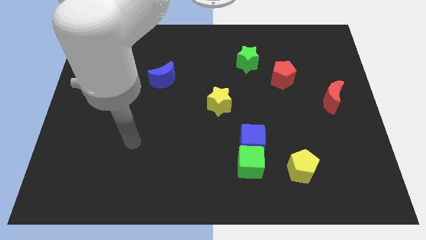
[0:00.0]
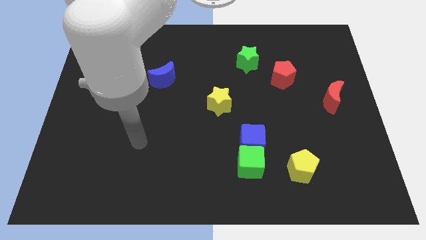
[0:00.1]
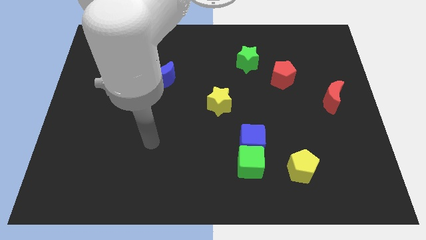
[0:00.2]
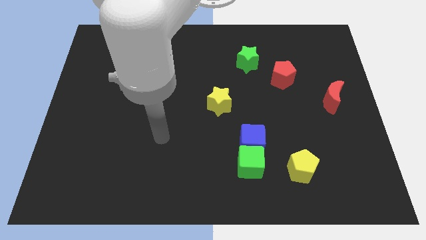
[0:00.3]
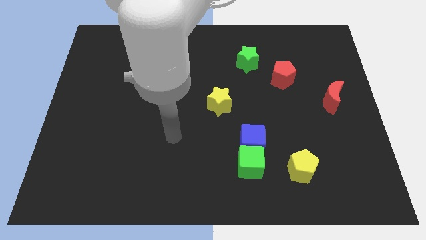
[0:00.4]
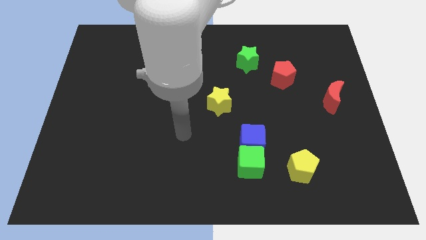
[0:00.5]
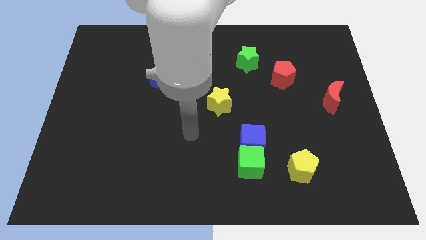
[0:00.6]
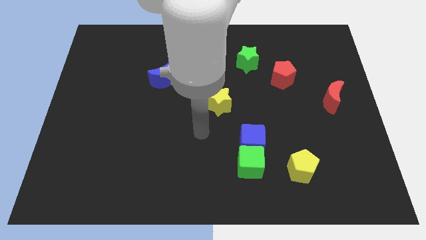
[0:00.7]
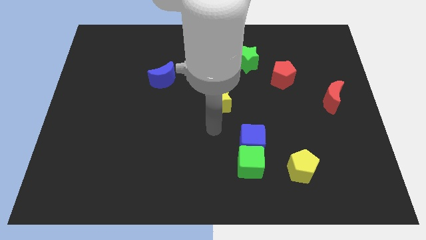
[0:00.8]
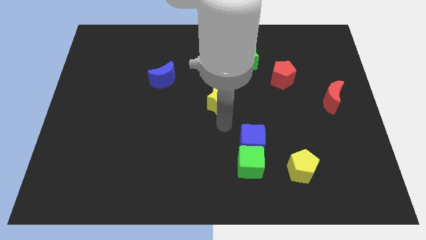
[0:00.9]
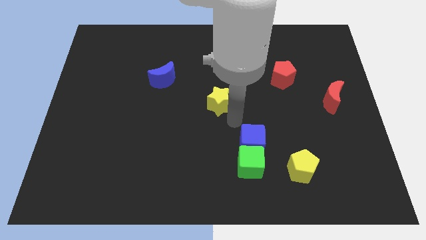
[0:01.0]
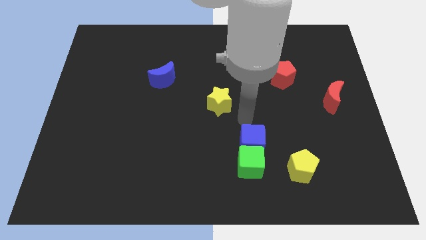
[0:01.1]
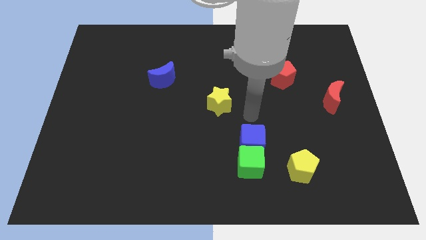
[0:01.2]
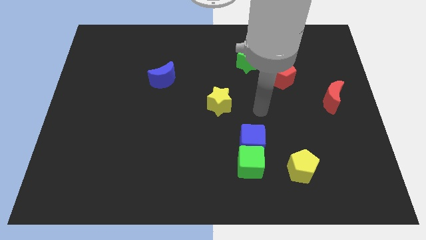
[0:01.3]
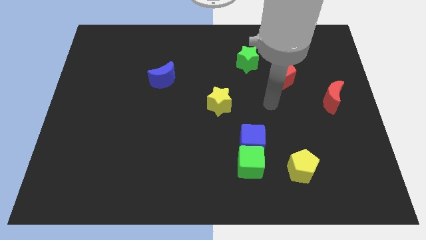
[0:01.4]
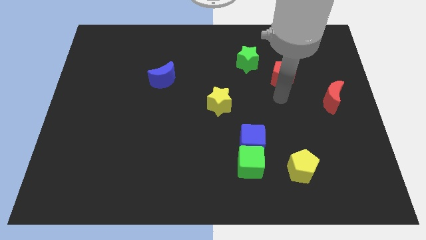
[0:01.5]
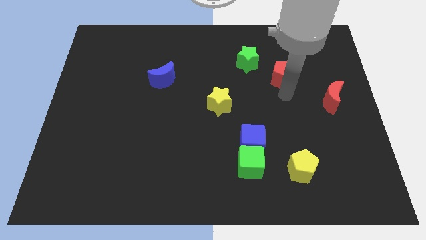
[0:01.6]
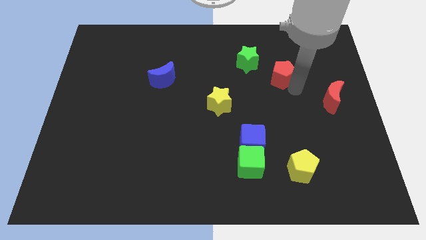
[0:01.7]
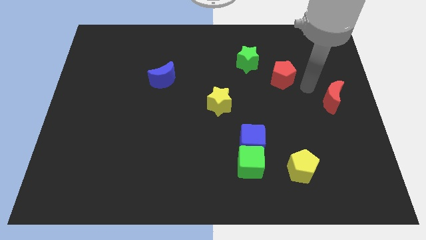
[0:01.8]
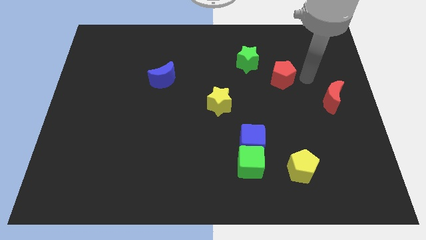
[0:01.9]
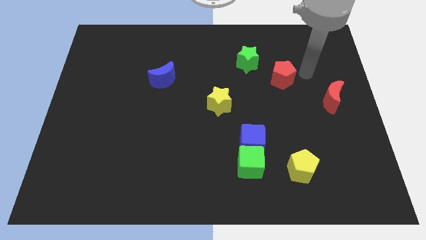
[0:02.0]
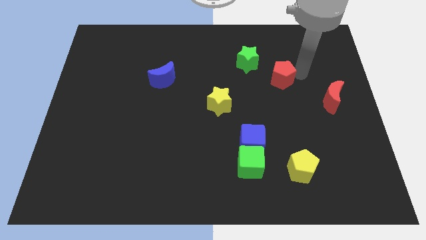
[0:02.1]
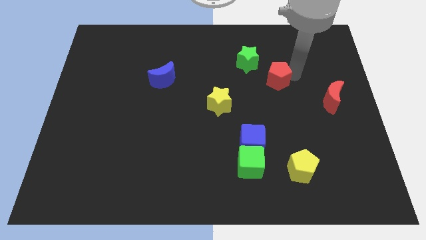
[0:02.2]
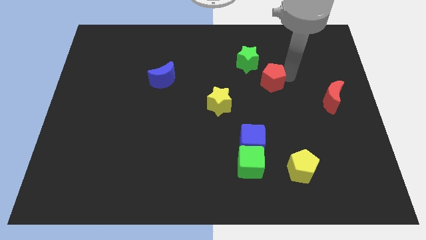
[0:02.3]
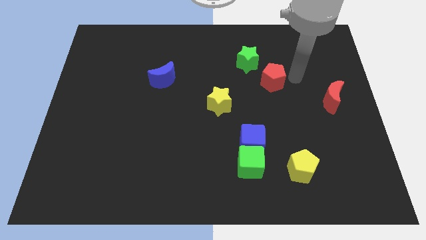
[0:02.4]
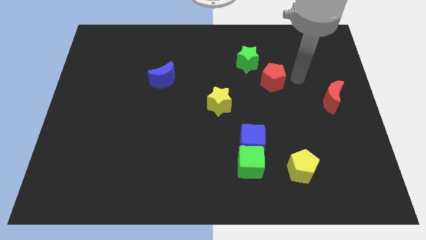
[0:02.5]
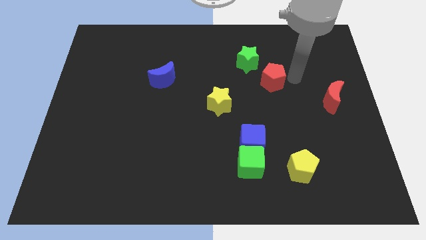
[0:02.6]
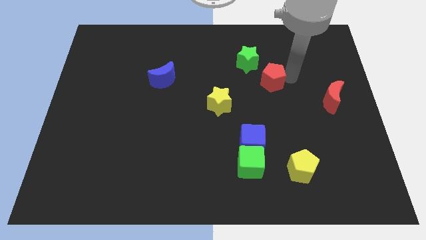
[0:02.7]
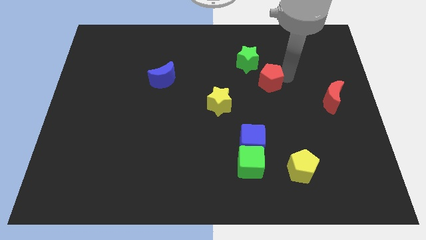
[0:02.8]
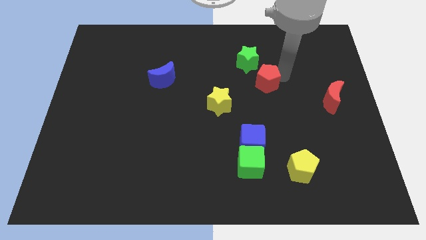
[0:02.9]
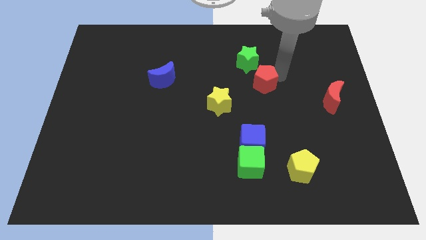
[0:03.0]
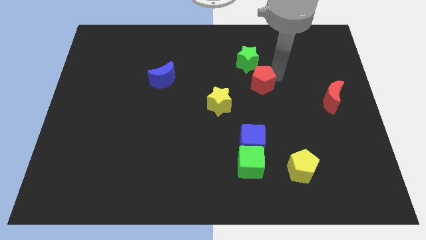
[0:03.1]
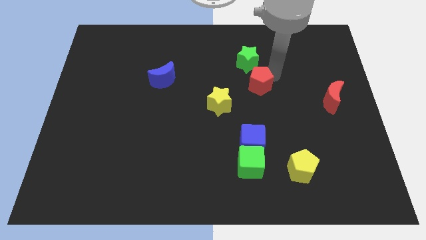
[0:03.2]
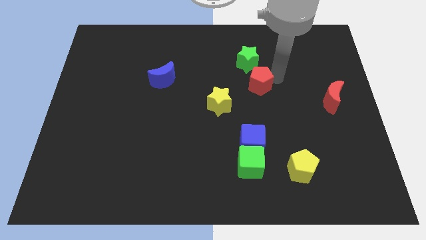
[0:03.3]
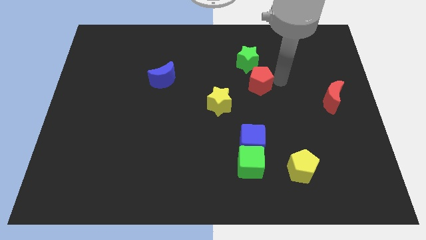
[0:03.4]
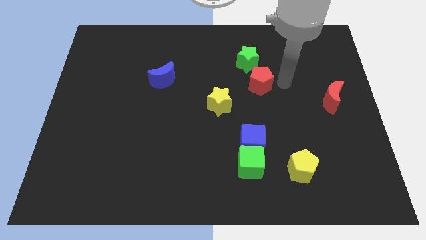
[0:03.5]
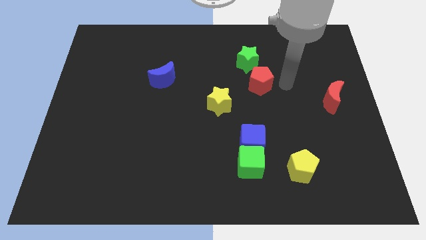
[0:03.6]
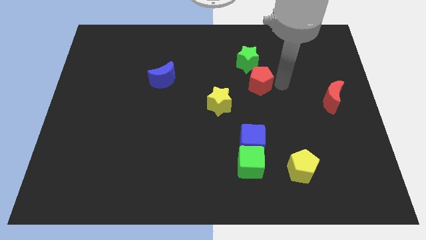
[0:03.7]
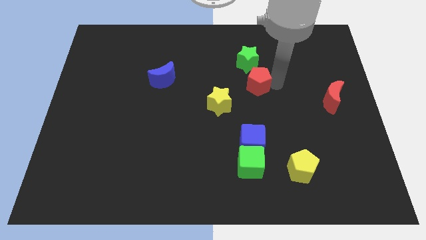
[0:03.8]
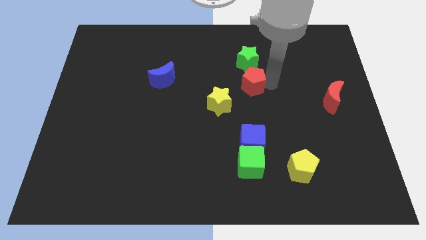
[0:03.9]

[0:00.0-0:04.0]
slightly move the red pentagon to the left

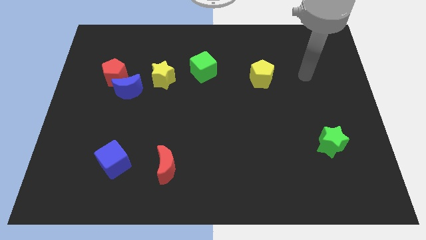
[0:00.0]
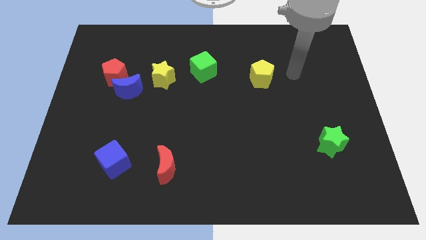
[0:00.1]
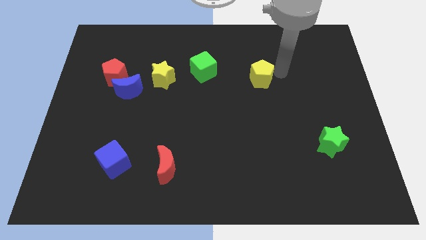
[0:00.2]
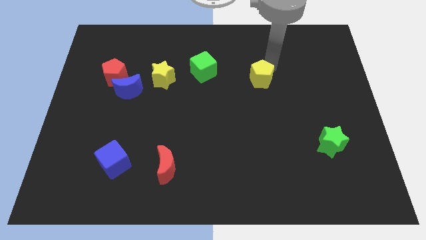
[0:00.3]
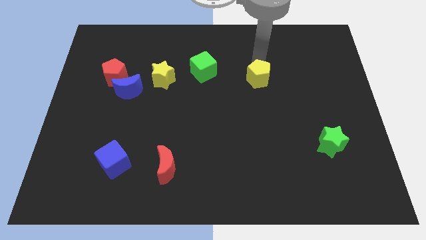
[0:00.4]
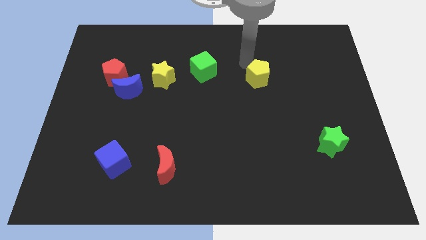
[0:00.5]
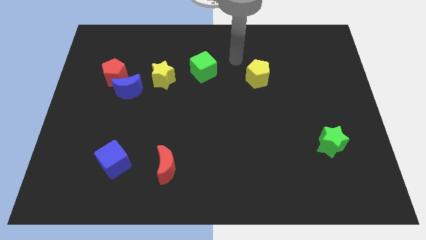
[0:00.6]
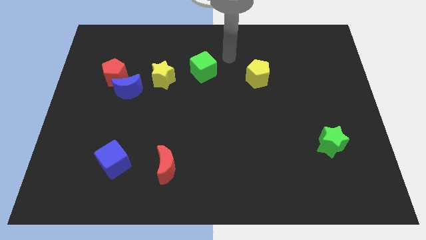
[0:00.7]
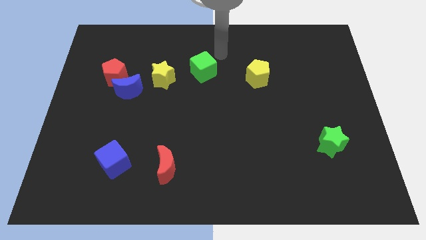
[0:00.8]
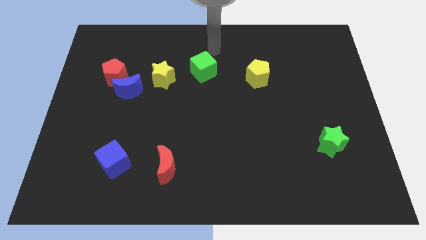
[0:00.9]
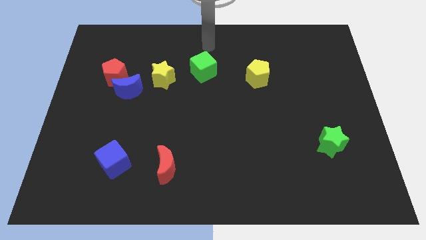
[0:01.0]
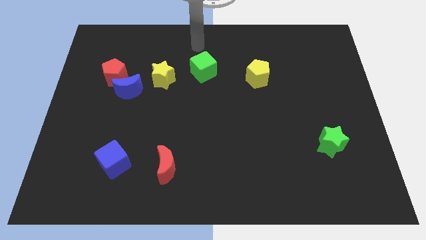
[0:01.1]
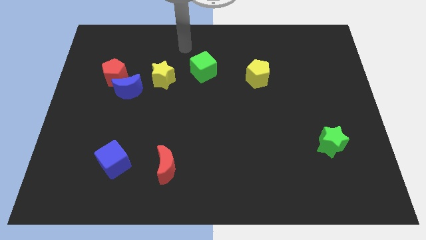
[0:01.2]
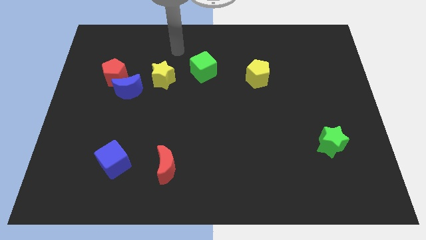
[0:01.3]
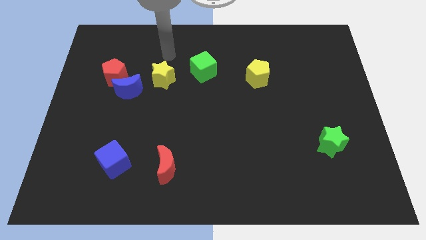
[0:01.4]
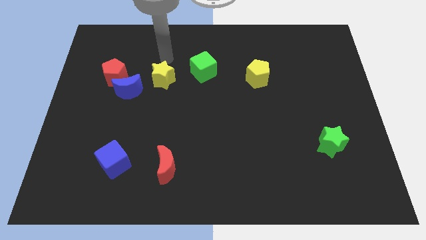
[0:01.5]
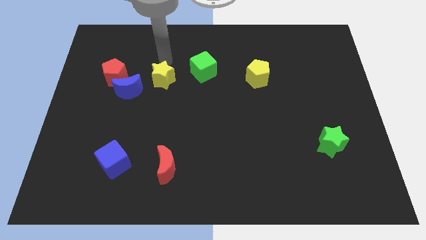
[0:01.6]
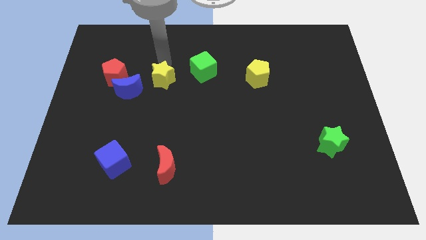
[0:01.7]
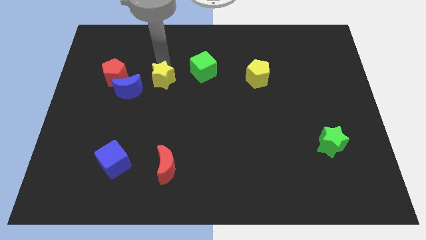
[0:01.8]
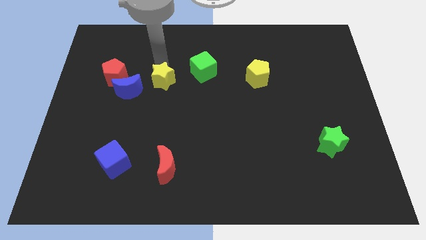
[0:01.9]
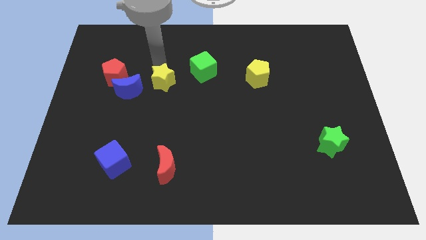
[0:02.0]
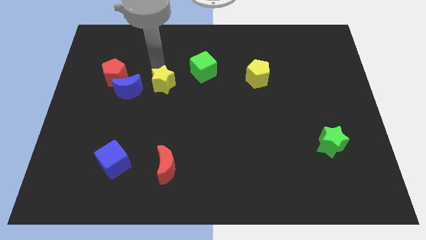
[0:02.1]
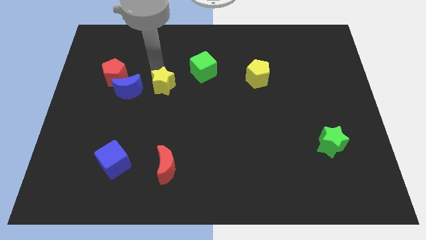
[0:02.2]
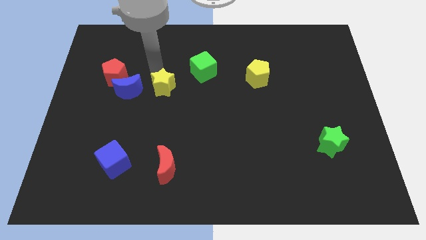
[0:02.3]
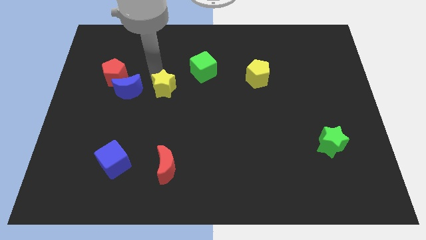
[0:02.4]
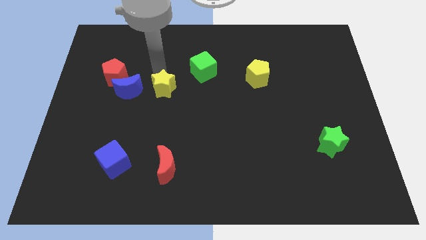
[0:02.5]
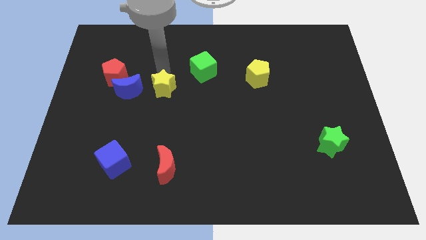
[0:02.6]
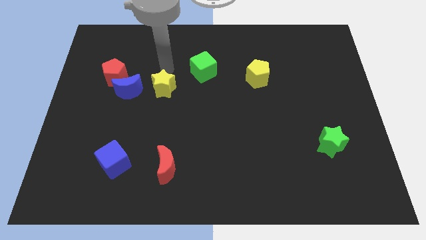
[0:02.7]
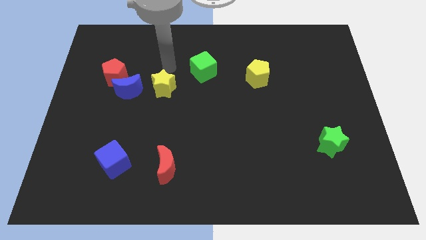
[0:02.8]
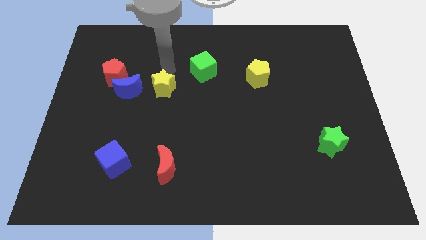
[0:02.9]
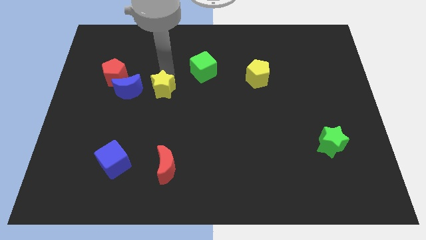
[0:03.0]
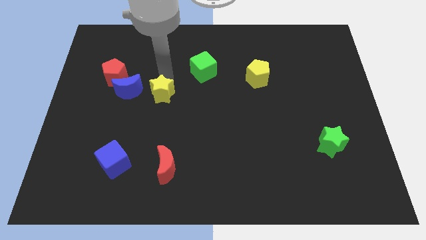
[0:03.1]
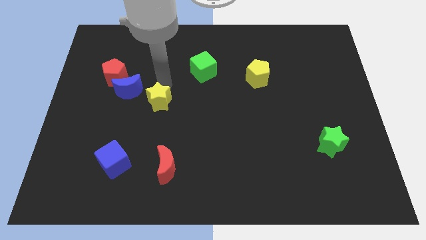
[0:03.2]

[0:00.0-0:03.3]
push the yellow star down a little bit

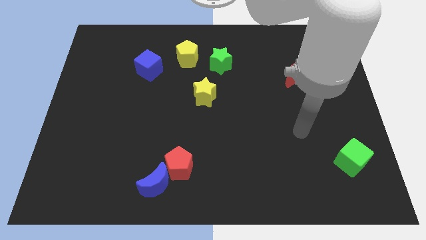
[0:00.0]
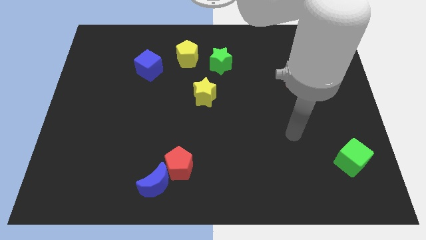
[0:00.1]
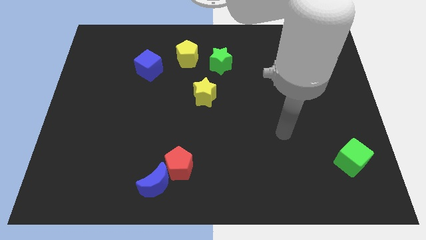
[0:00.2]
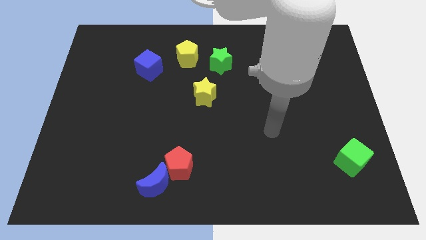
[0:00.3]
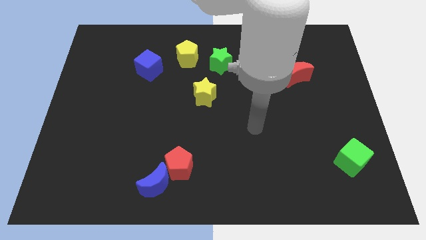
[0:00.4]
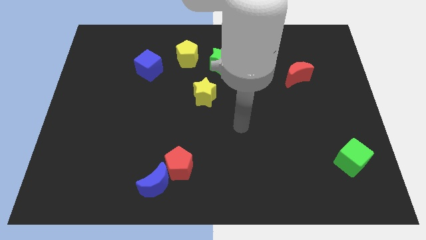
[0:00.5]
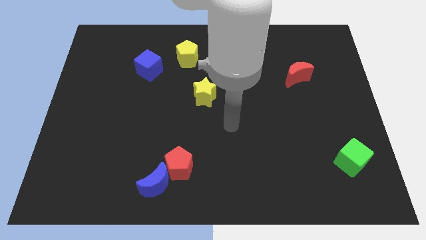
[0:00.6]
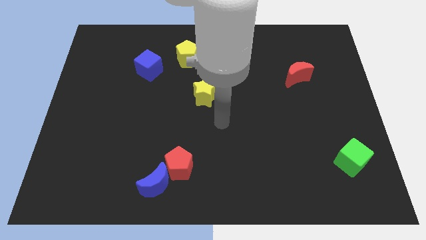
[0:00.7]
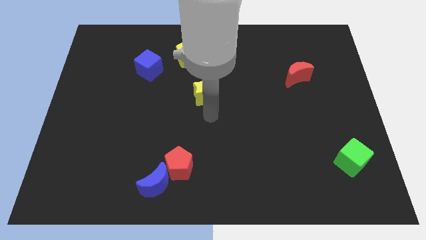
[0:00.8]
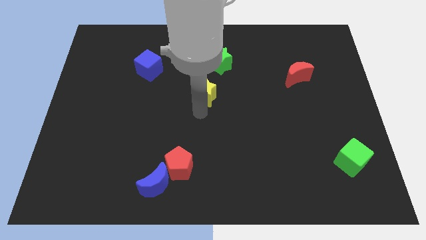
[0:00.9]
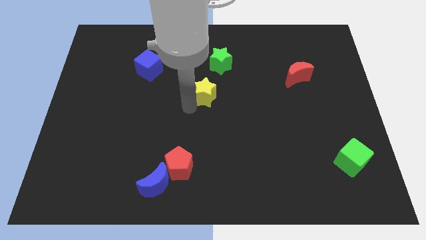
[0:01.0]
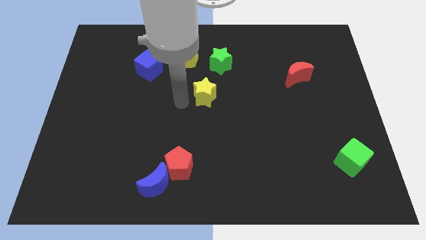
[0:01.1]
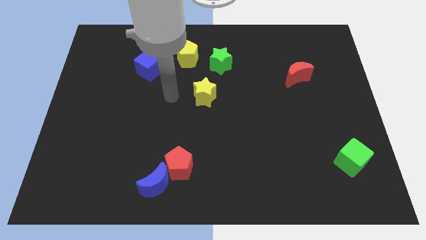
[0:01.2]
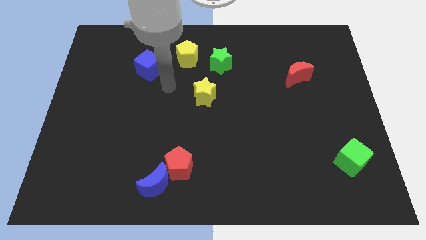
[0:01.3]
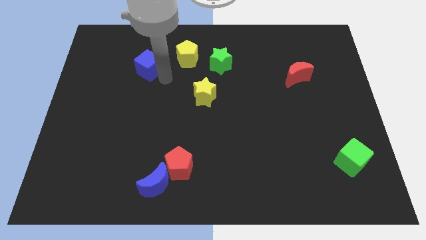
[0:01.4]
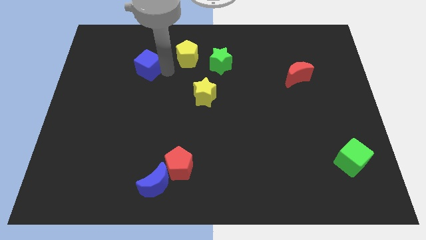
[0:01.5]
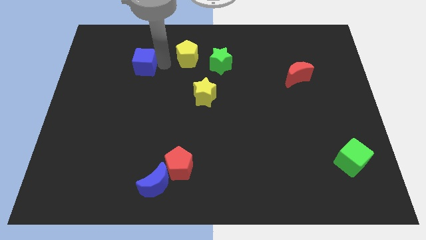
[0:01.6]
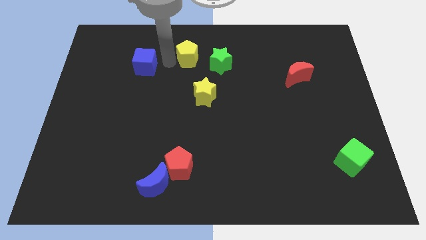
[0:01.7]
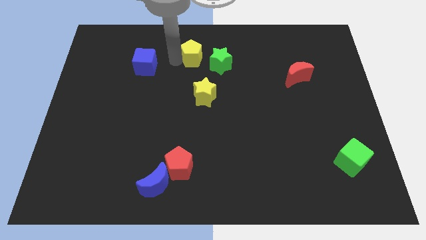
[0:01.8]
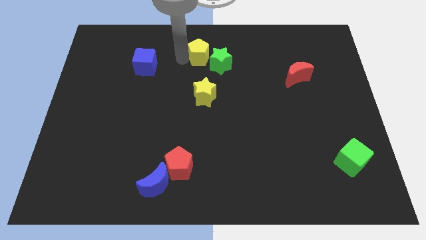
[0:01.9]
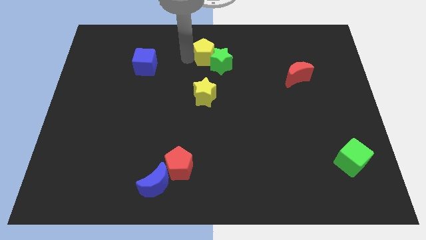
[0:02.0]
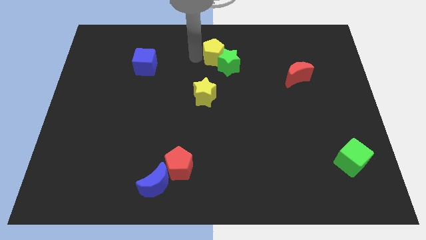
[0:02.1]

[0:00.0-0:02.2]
slightly slide the yellow pentagon right
